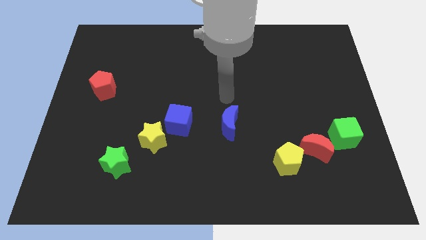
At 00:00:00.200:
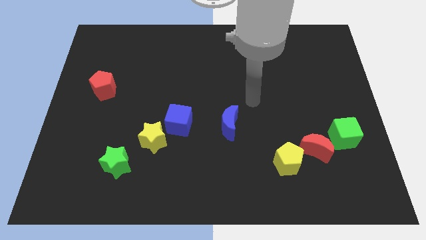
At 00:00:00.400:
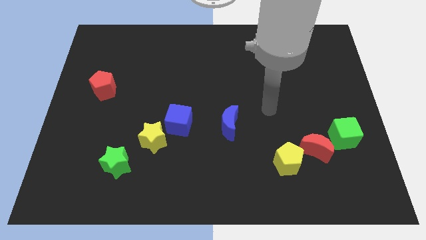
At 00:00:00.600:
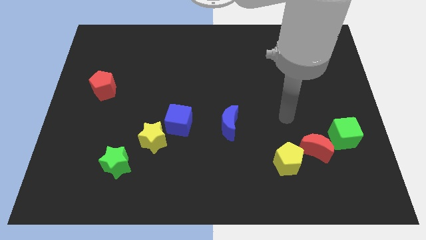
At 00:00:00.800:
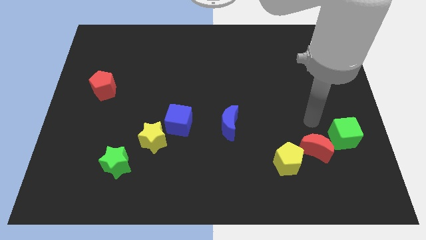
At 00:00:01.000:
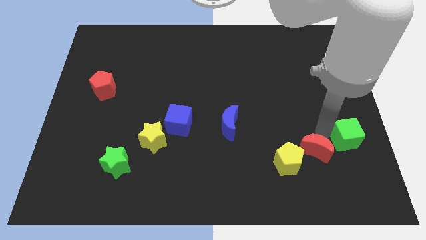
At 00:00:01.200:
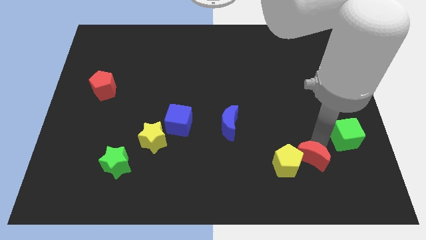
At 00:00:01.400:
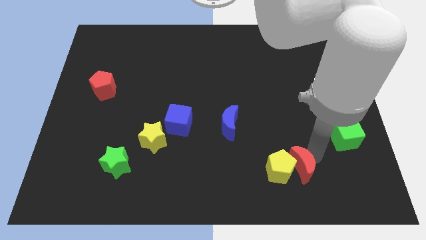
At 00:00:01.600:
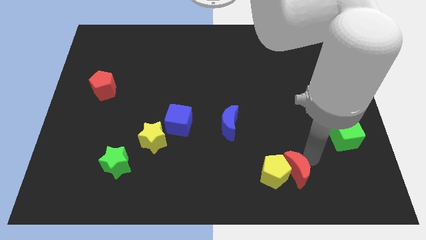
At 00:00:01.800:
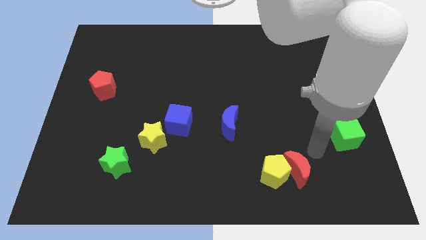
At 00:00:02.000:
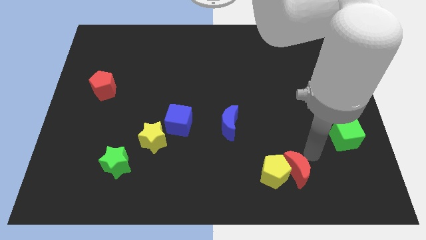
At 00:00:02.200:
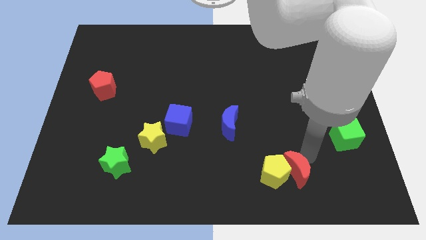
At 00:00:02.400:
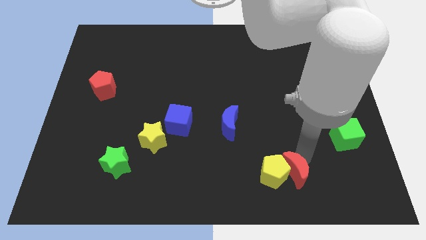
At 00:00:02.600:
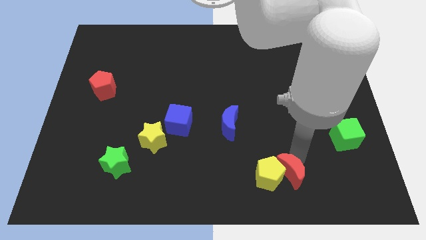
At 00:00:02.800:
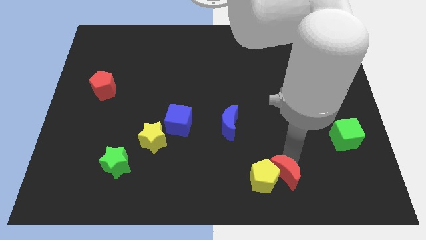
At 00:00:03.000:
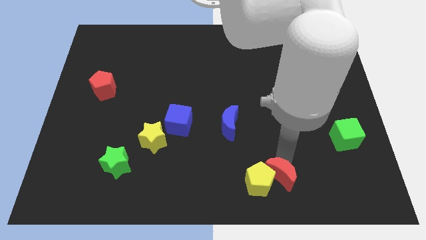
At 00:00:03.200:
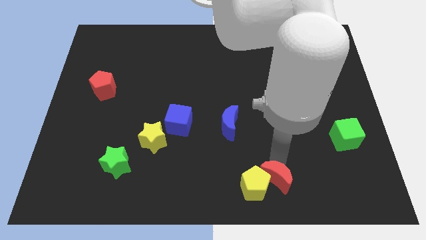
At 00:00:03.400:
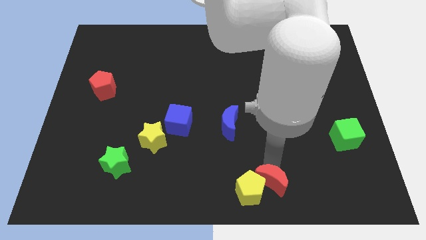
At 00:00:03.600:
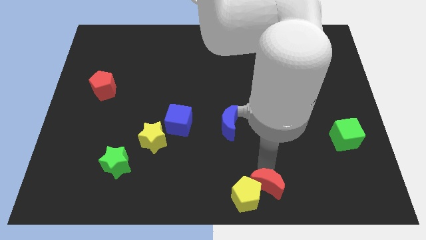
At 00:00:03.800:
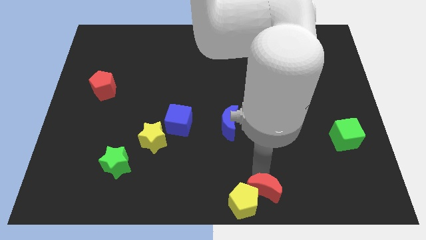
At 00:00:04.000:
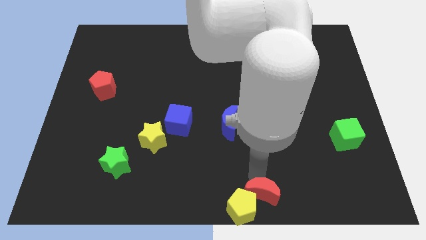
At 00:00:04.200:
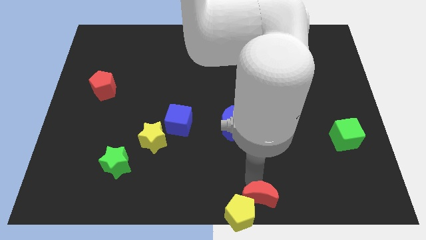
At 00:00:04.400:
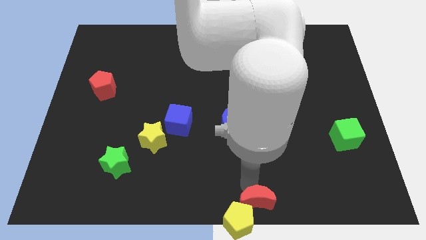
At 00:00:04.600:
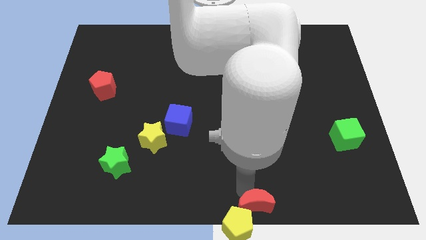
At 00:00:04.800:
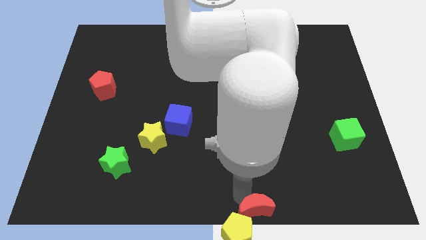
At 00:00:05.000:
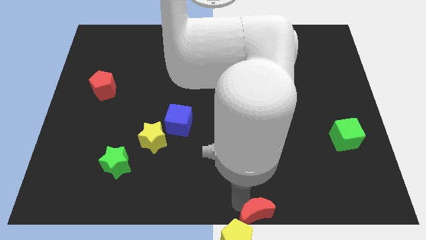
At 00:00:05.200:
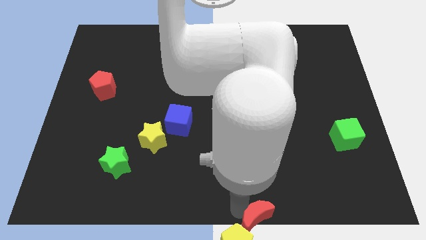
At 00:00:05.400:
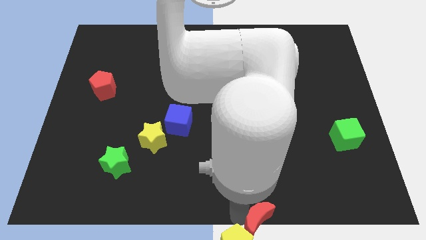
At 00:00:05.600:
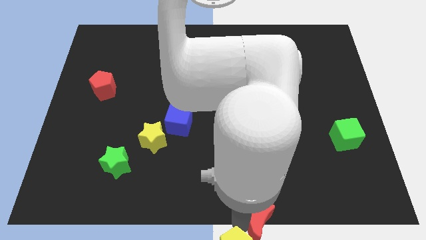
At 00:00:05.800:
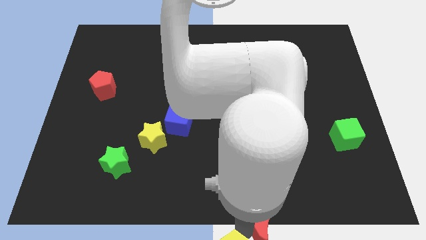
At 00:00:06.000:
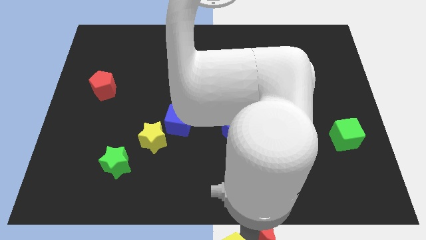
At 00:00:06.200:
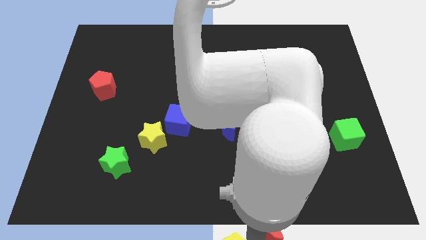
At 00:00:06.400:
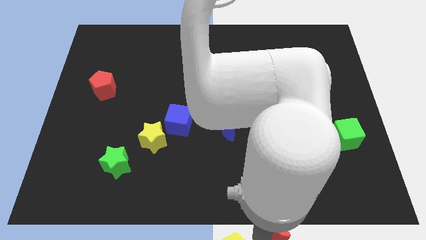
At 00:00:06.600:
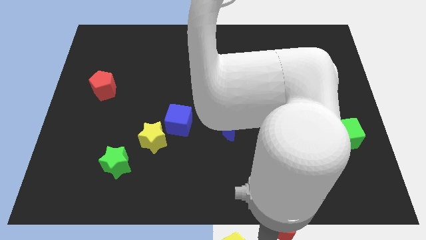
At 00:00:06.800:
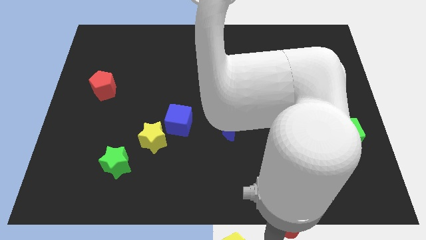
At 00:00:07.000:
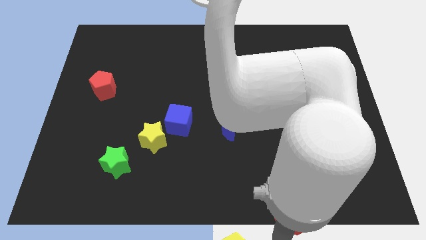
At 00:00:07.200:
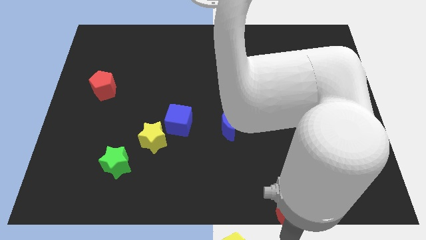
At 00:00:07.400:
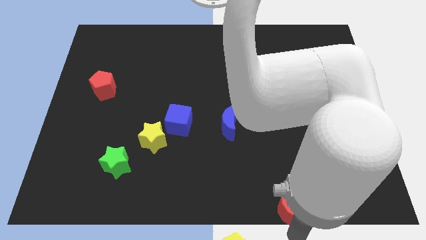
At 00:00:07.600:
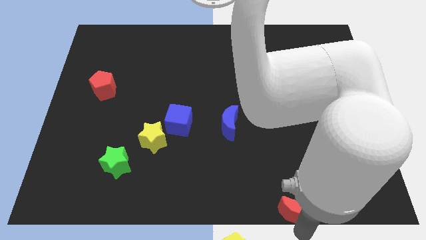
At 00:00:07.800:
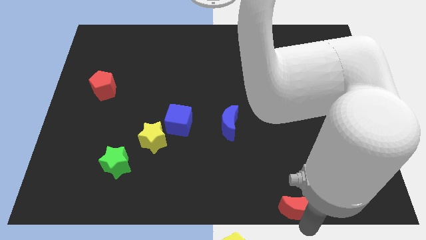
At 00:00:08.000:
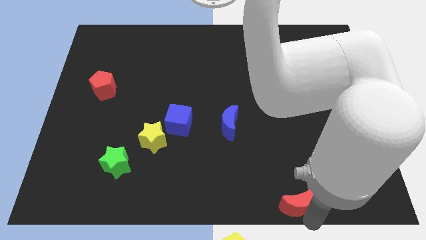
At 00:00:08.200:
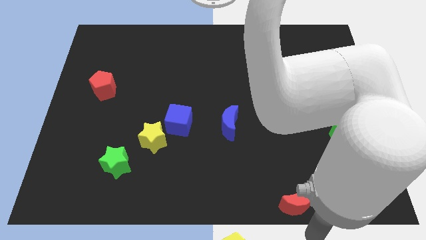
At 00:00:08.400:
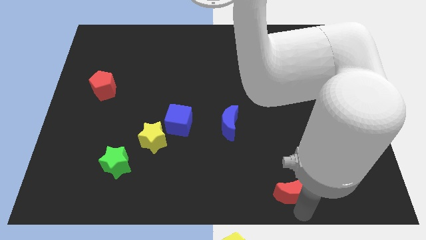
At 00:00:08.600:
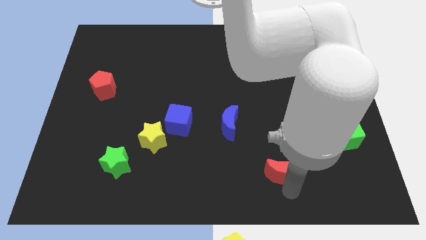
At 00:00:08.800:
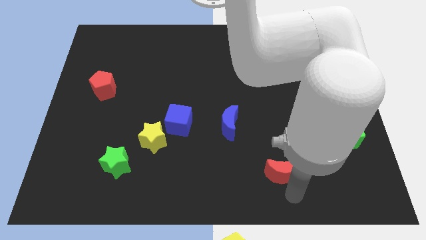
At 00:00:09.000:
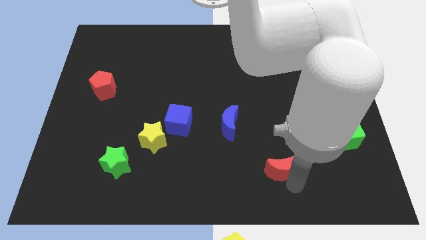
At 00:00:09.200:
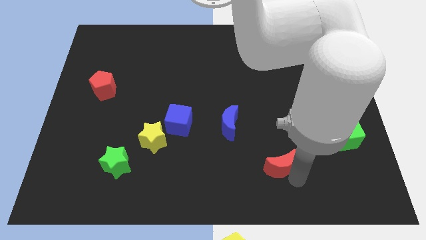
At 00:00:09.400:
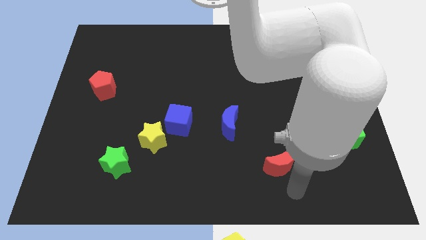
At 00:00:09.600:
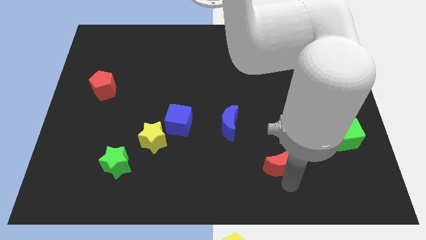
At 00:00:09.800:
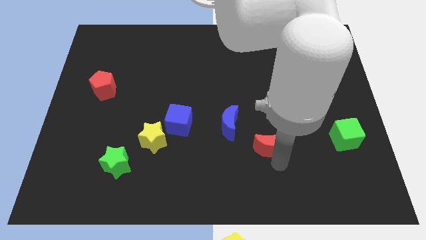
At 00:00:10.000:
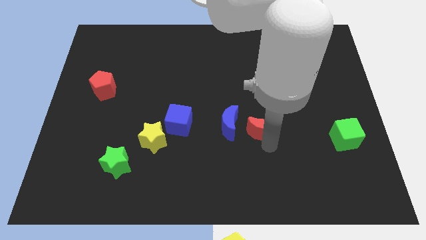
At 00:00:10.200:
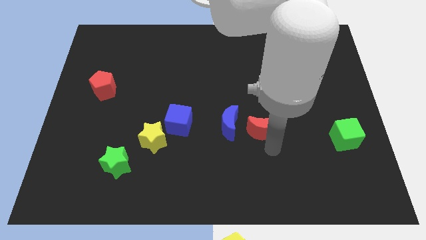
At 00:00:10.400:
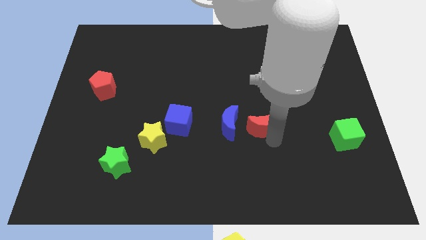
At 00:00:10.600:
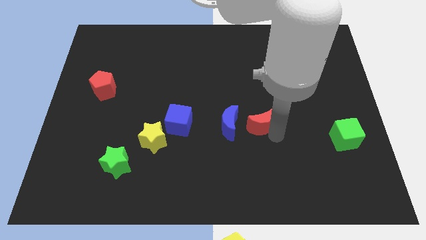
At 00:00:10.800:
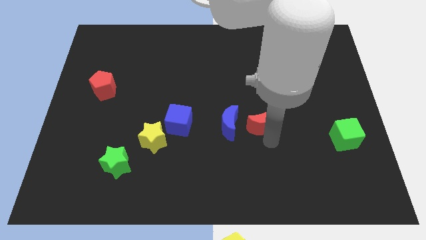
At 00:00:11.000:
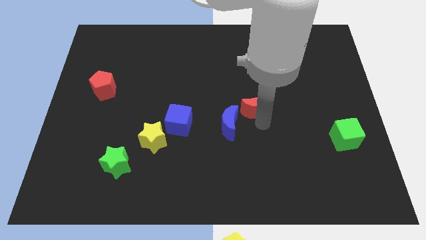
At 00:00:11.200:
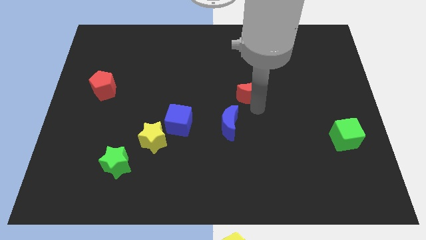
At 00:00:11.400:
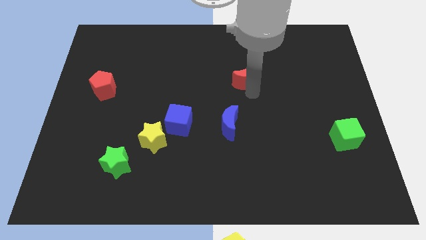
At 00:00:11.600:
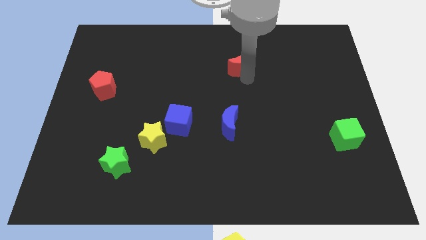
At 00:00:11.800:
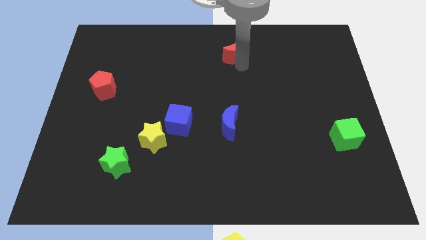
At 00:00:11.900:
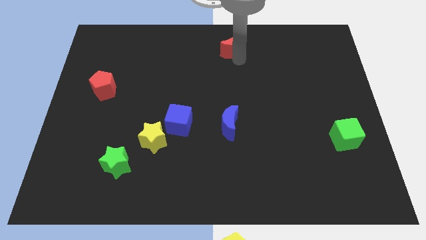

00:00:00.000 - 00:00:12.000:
push the red moon to the top

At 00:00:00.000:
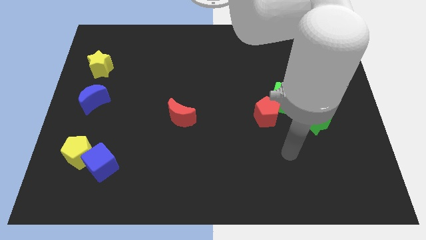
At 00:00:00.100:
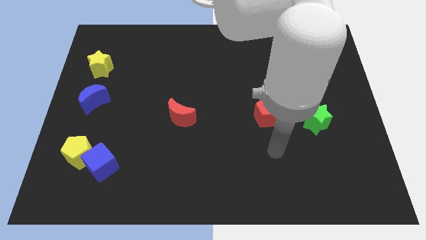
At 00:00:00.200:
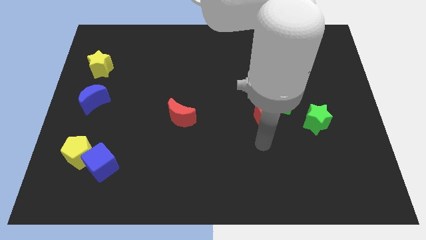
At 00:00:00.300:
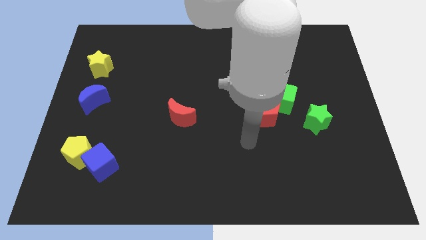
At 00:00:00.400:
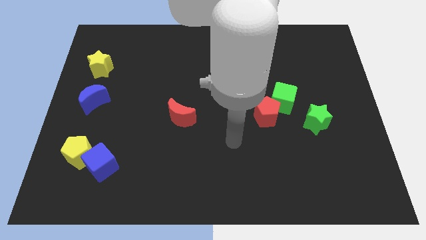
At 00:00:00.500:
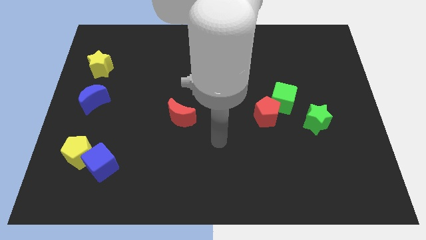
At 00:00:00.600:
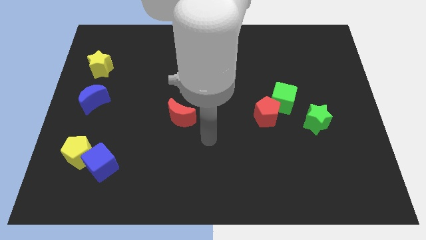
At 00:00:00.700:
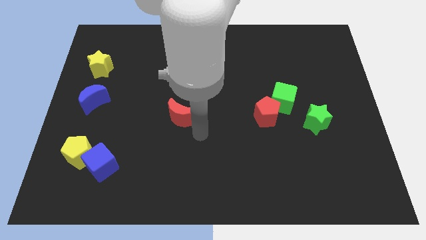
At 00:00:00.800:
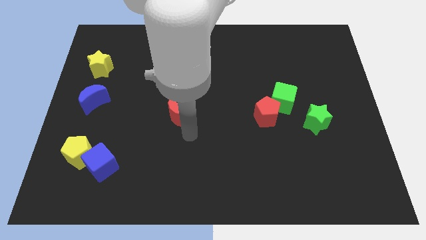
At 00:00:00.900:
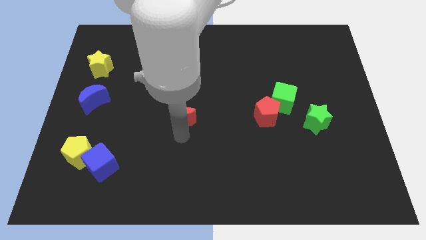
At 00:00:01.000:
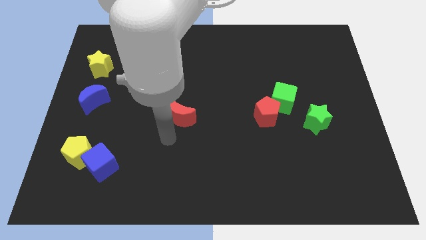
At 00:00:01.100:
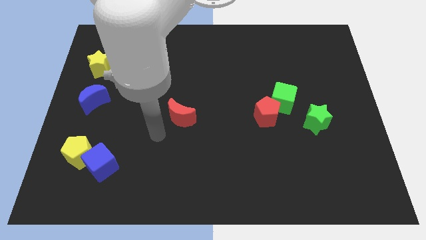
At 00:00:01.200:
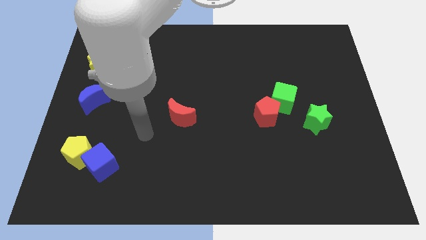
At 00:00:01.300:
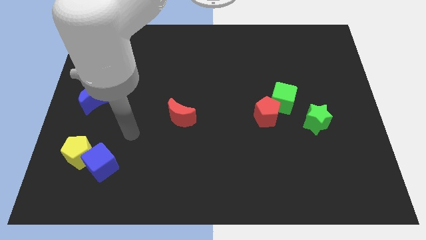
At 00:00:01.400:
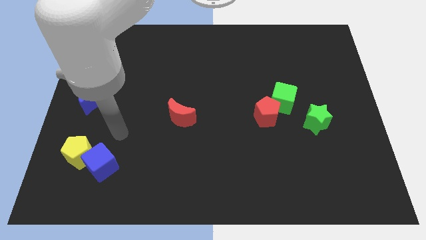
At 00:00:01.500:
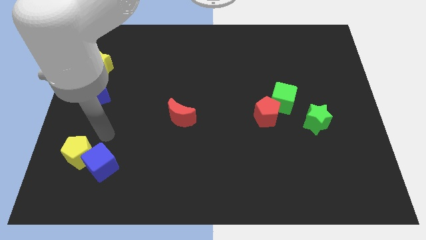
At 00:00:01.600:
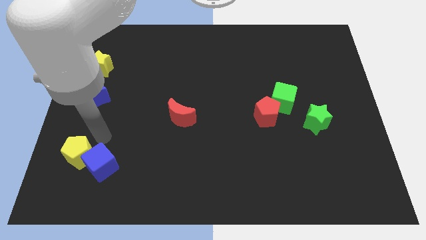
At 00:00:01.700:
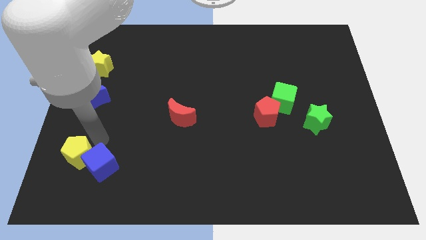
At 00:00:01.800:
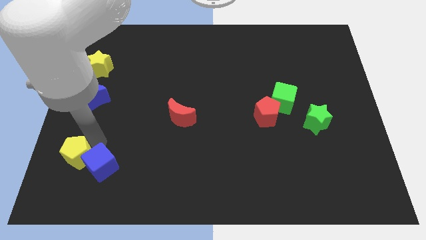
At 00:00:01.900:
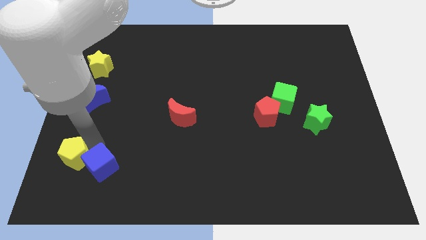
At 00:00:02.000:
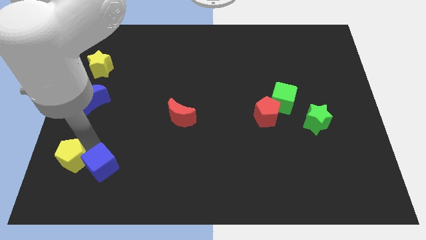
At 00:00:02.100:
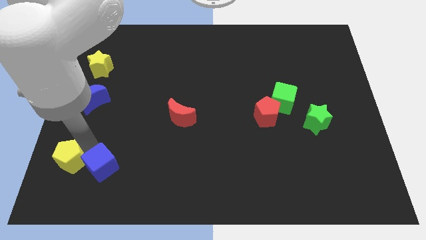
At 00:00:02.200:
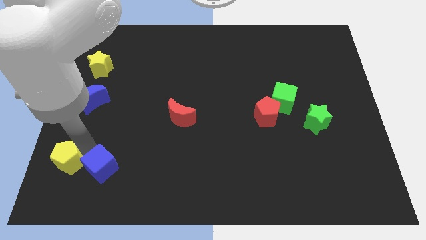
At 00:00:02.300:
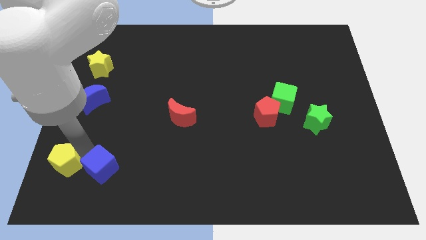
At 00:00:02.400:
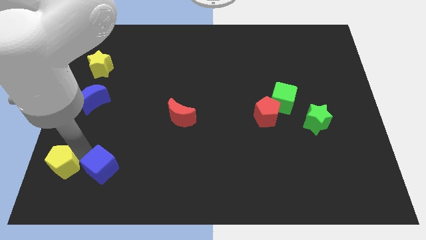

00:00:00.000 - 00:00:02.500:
move the yellow pentagon to the bottom left
